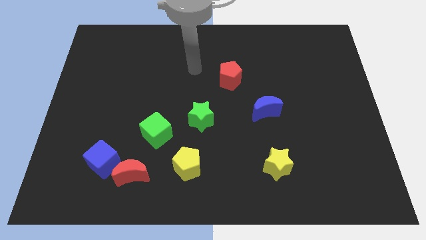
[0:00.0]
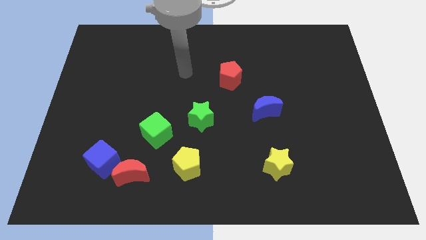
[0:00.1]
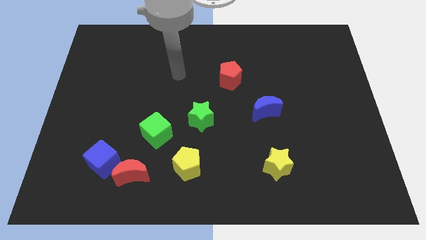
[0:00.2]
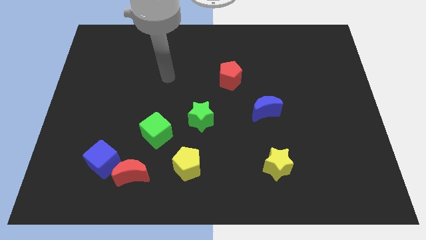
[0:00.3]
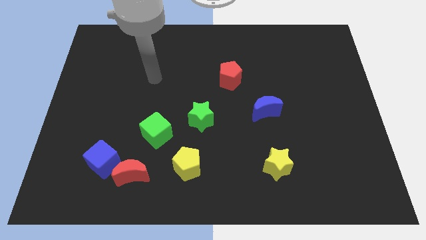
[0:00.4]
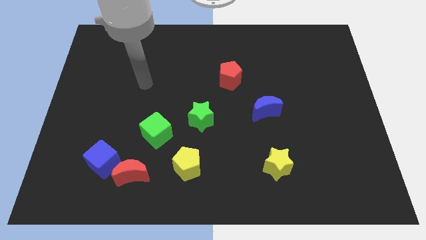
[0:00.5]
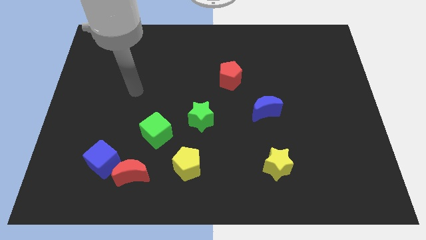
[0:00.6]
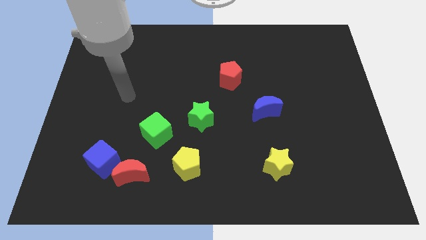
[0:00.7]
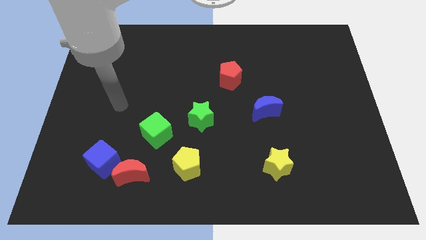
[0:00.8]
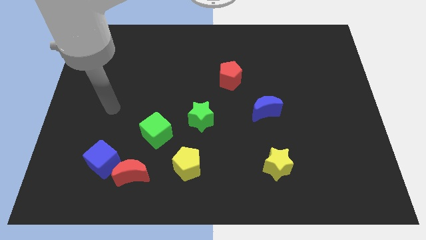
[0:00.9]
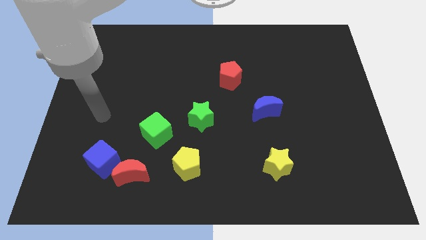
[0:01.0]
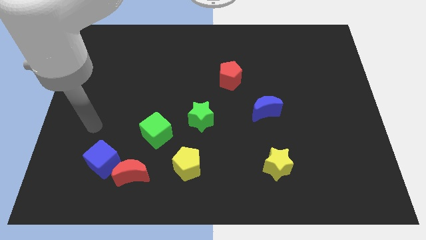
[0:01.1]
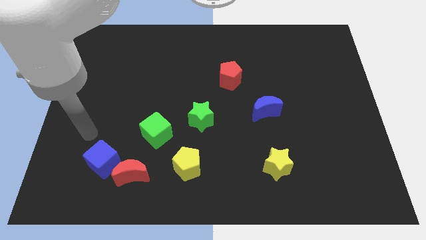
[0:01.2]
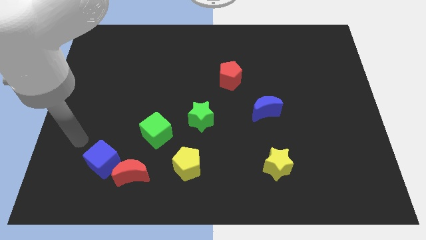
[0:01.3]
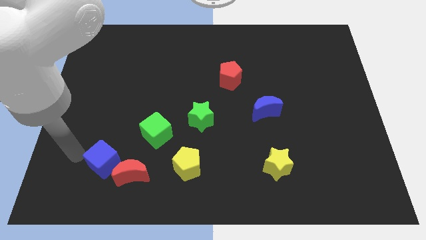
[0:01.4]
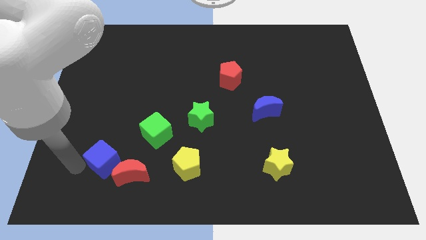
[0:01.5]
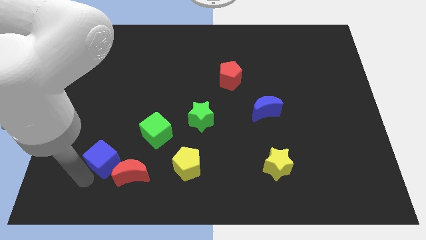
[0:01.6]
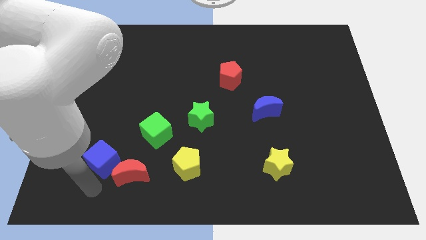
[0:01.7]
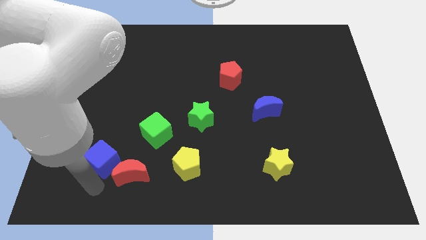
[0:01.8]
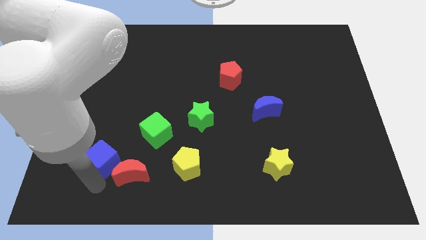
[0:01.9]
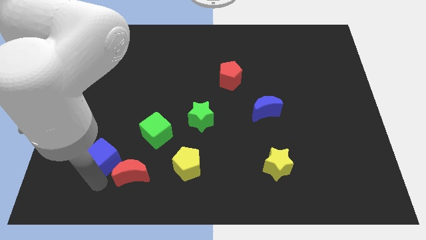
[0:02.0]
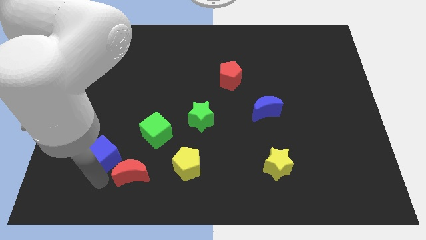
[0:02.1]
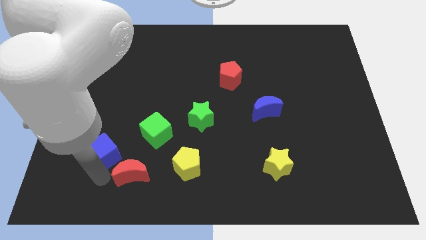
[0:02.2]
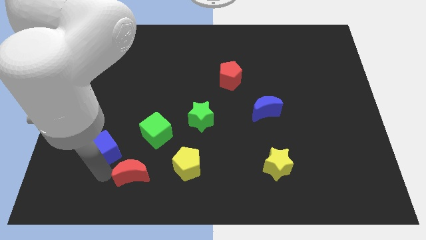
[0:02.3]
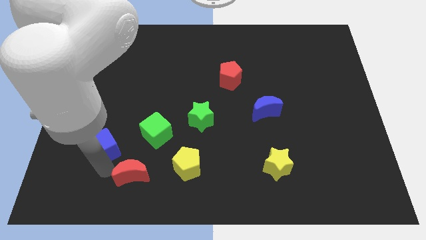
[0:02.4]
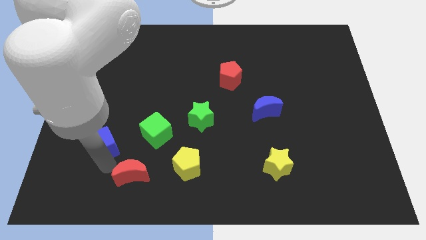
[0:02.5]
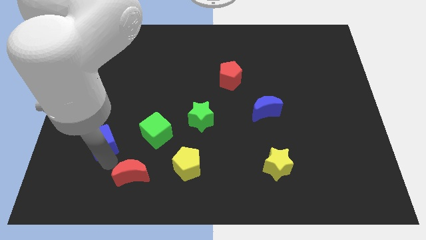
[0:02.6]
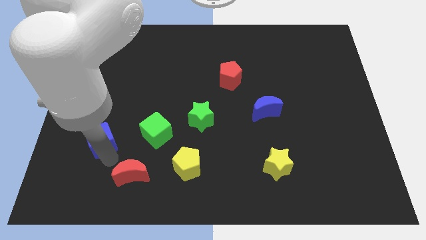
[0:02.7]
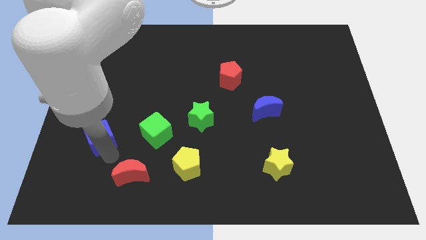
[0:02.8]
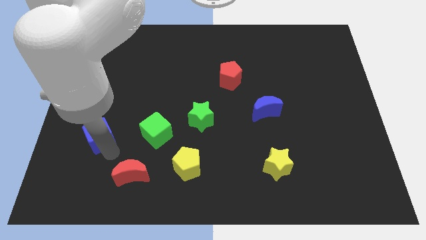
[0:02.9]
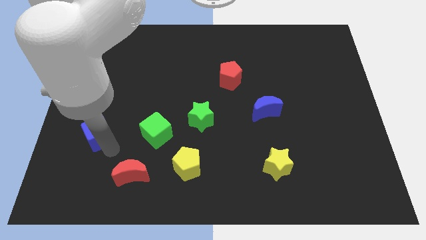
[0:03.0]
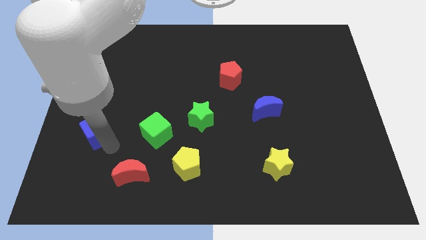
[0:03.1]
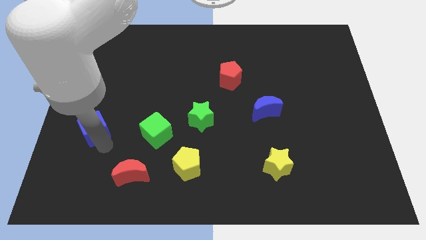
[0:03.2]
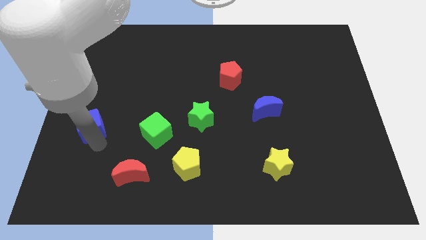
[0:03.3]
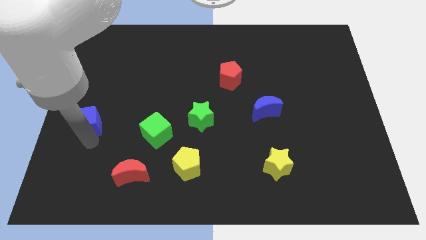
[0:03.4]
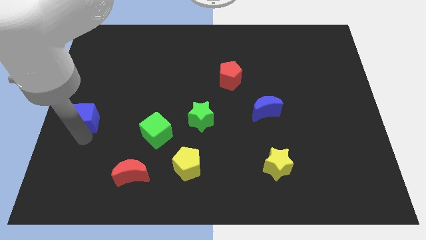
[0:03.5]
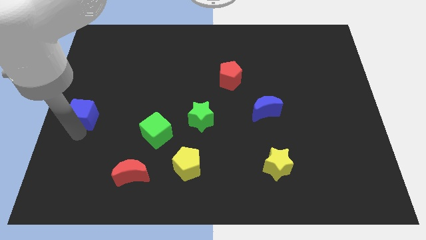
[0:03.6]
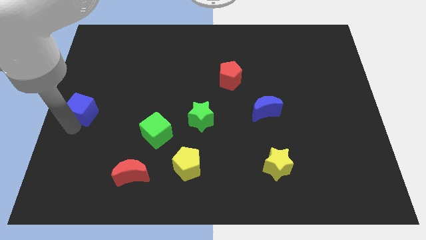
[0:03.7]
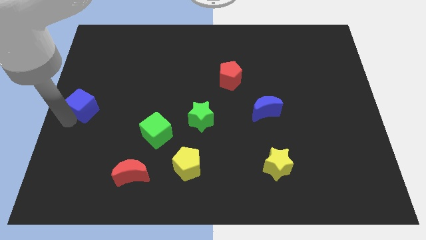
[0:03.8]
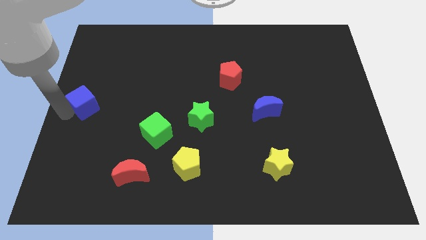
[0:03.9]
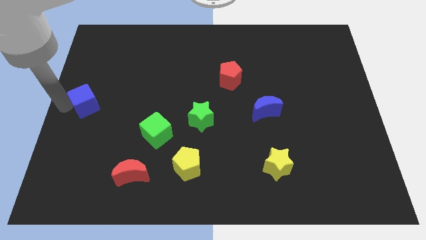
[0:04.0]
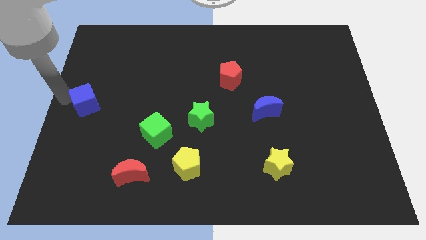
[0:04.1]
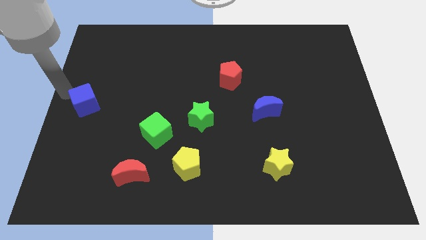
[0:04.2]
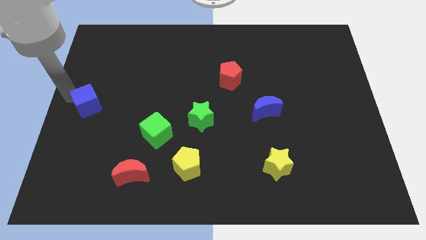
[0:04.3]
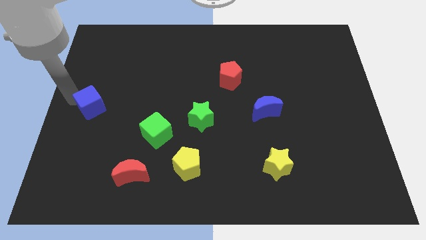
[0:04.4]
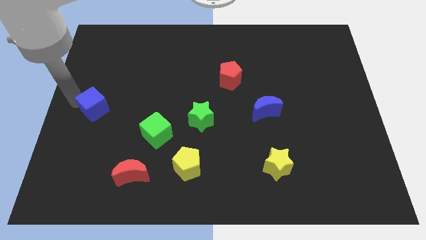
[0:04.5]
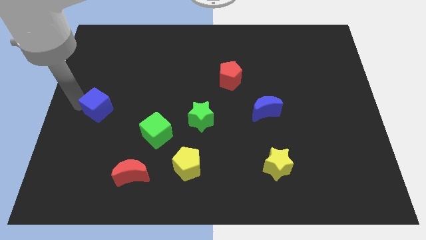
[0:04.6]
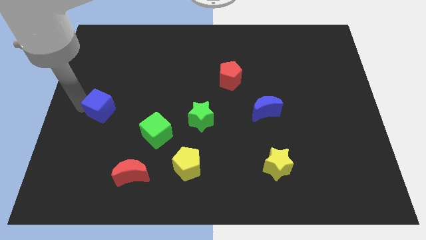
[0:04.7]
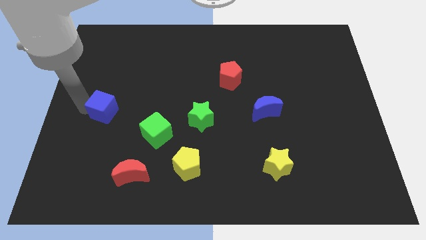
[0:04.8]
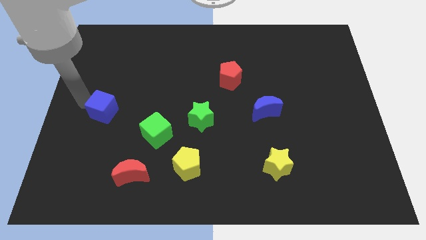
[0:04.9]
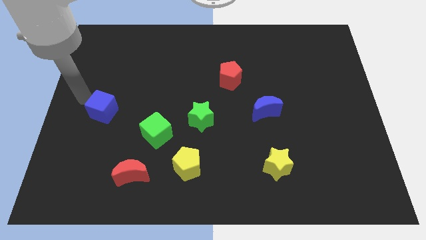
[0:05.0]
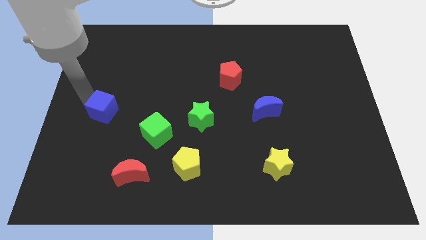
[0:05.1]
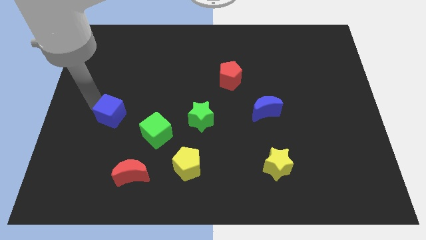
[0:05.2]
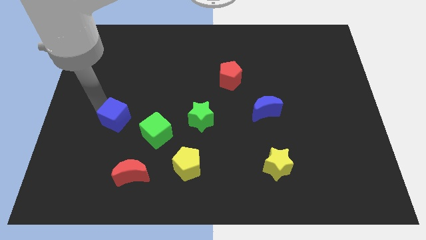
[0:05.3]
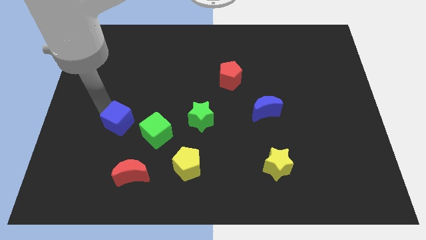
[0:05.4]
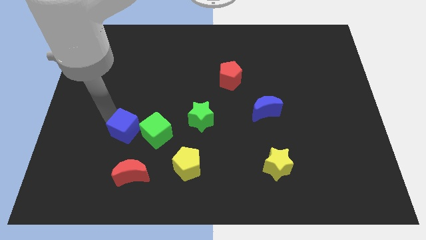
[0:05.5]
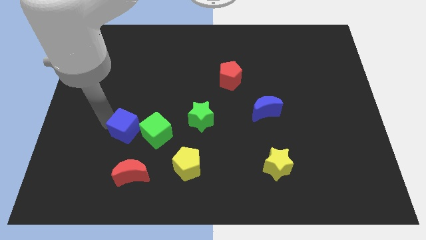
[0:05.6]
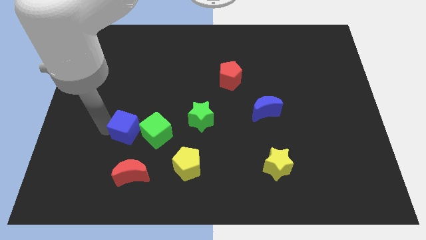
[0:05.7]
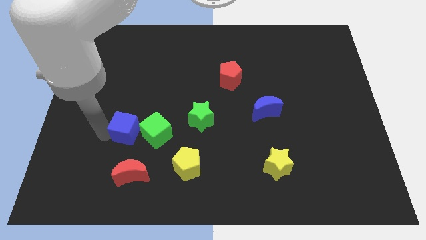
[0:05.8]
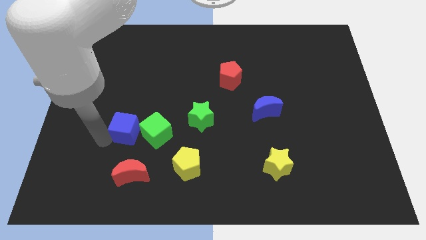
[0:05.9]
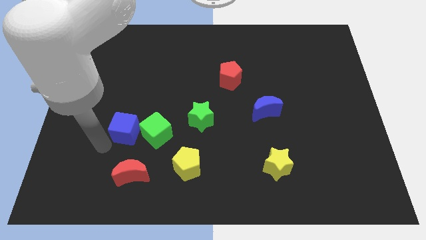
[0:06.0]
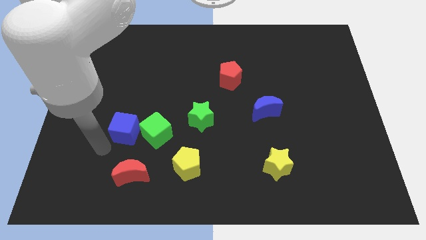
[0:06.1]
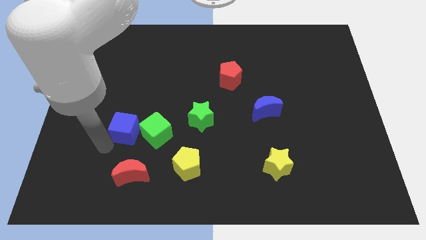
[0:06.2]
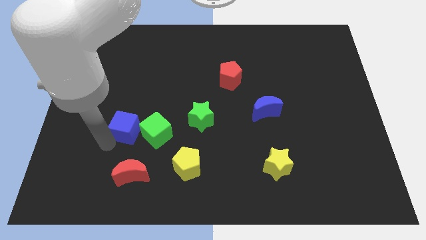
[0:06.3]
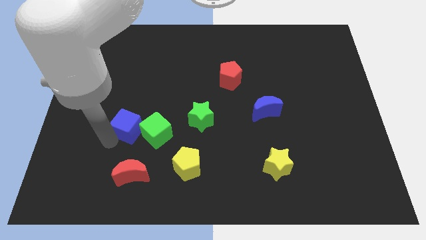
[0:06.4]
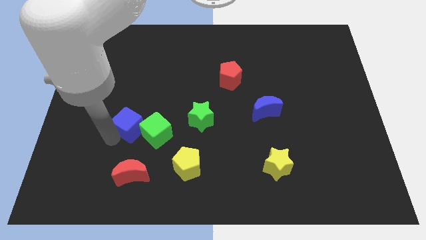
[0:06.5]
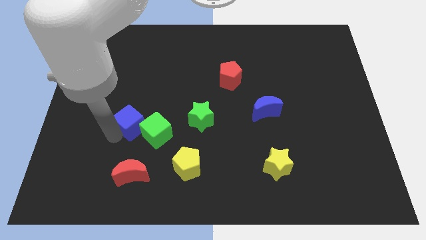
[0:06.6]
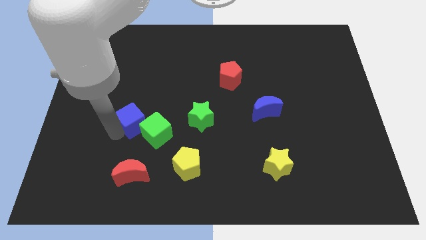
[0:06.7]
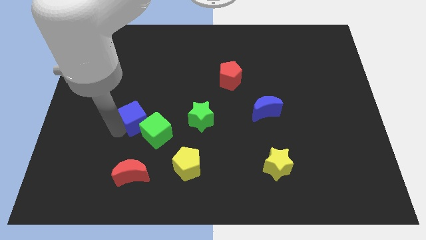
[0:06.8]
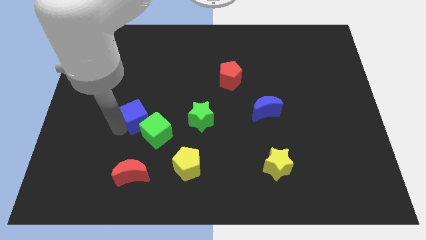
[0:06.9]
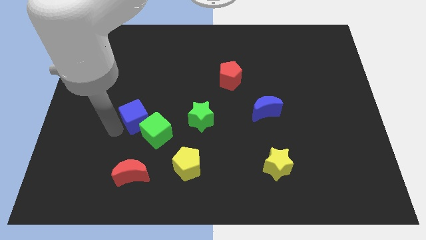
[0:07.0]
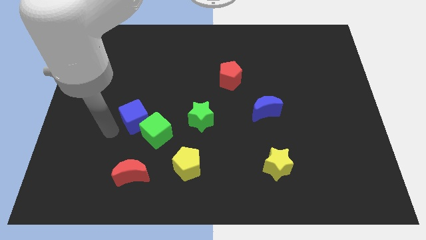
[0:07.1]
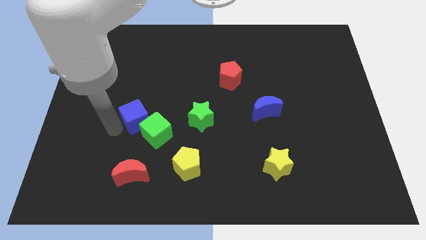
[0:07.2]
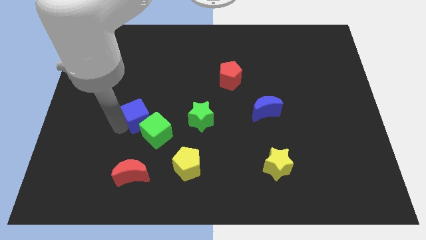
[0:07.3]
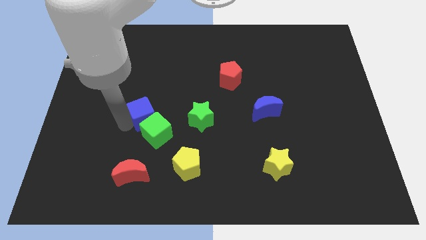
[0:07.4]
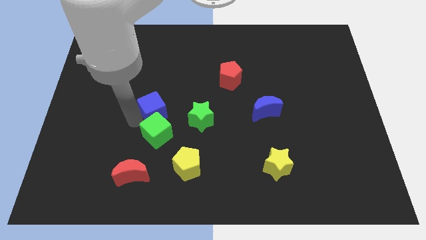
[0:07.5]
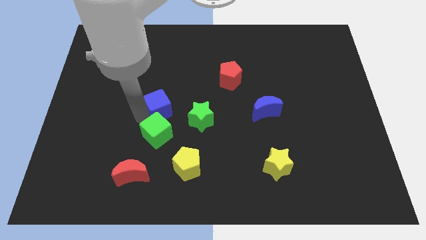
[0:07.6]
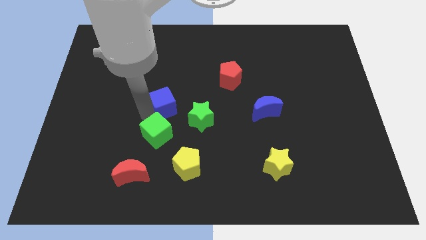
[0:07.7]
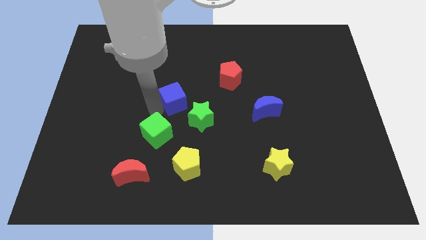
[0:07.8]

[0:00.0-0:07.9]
slide the blue cube up and right diagonally

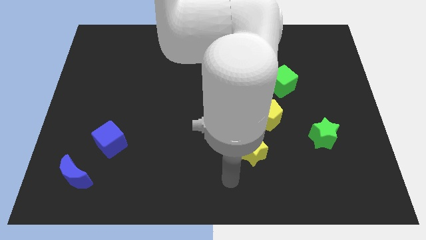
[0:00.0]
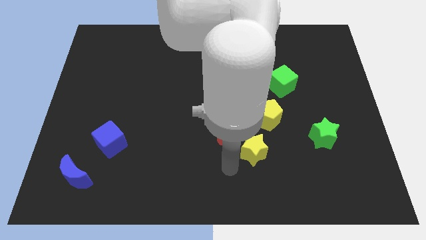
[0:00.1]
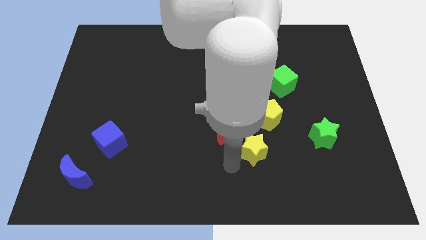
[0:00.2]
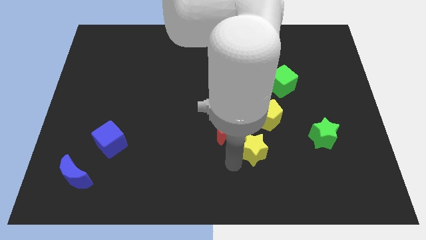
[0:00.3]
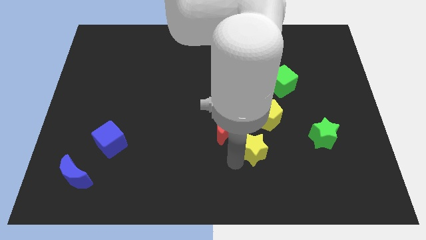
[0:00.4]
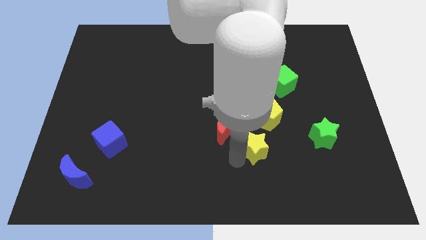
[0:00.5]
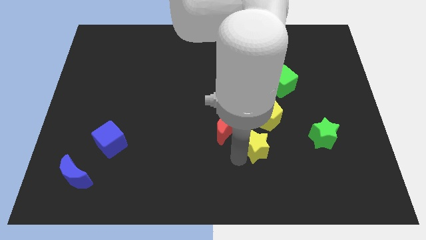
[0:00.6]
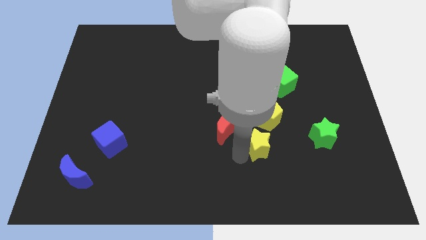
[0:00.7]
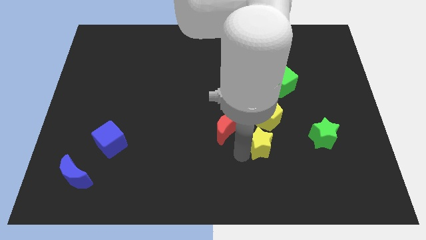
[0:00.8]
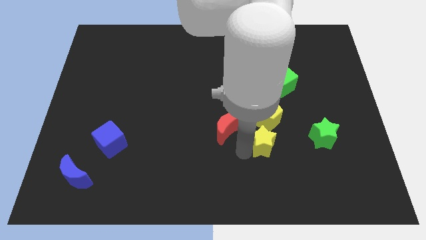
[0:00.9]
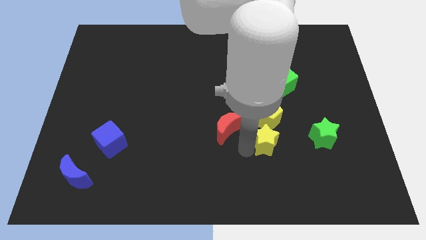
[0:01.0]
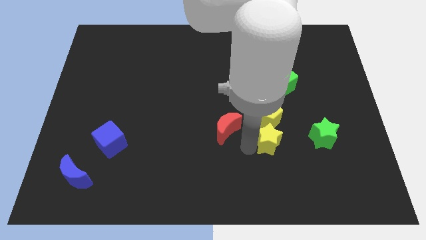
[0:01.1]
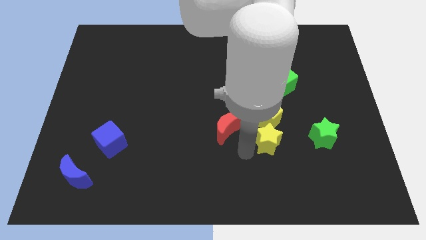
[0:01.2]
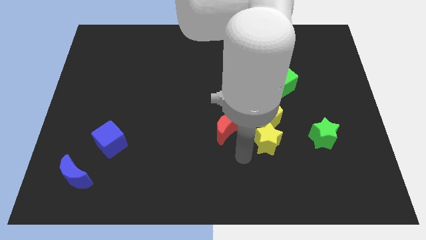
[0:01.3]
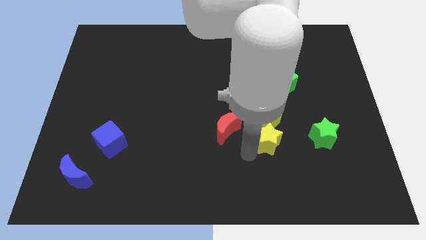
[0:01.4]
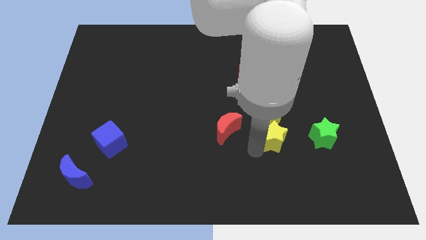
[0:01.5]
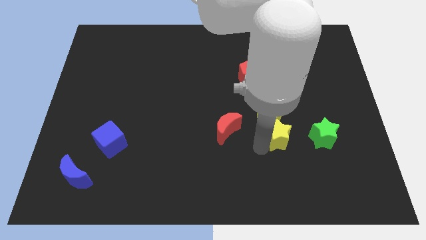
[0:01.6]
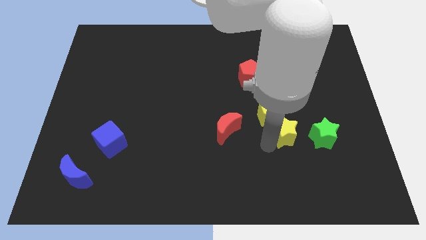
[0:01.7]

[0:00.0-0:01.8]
move the yellow star slightly up and right diagonally
